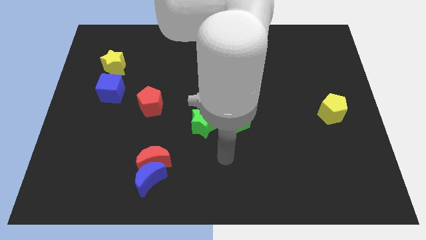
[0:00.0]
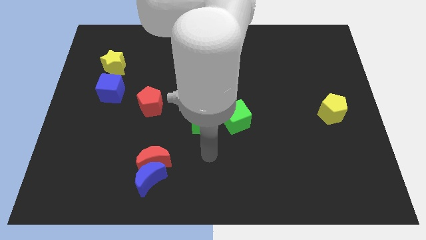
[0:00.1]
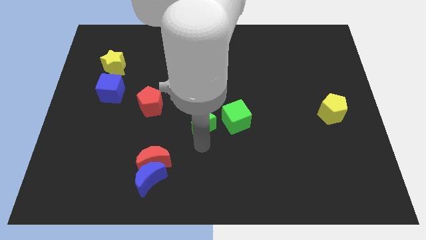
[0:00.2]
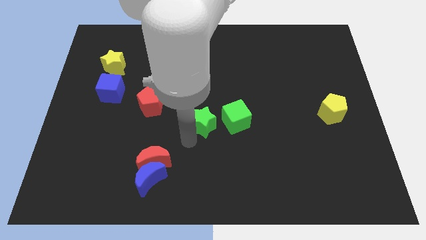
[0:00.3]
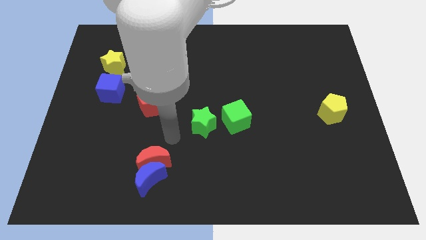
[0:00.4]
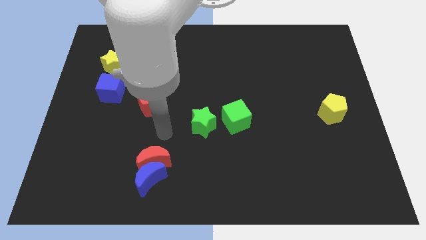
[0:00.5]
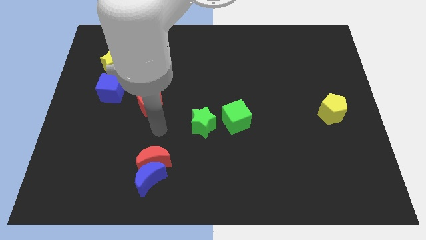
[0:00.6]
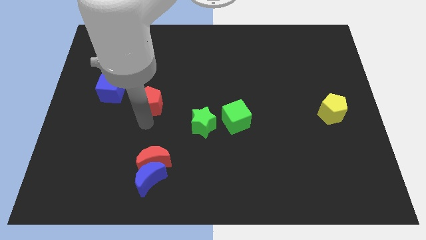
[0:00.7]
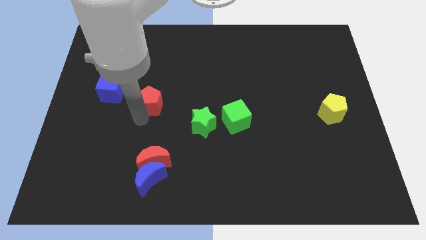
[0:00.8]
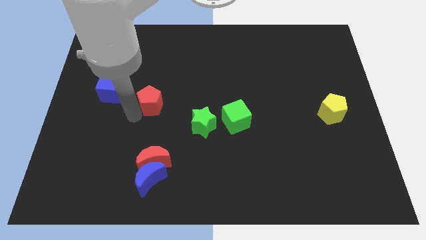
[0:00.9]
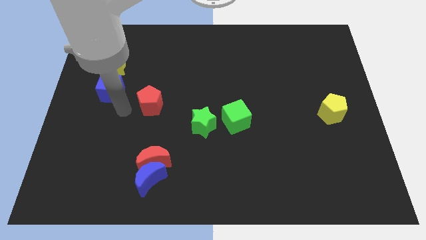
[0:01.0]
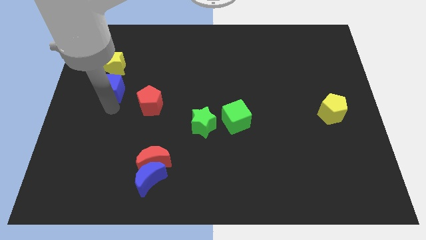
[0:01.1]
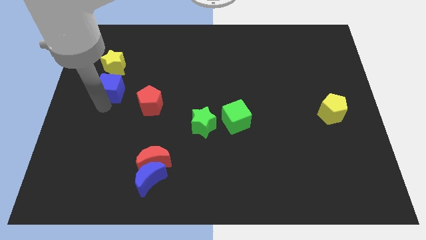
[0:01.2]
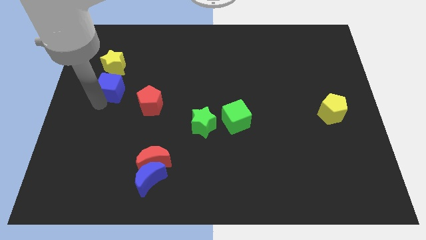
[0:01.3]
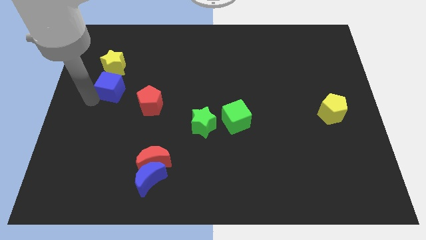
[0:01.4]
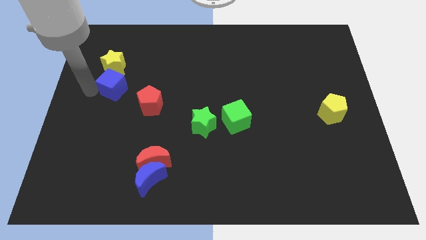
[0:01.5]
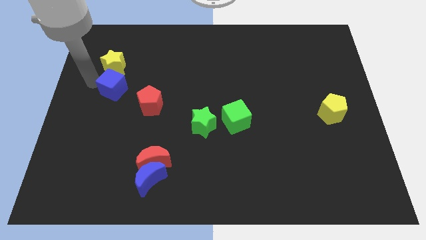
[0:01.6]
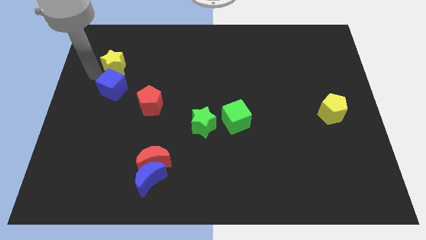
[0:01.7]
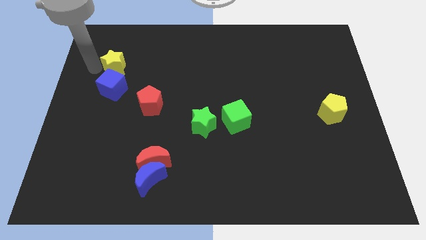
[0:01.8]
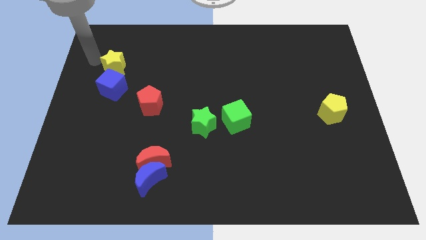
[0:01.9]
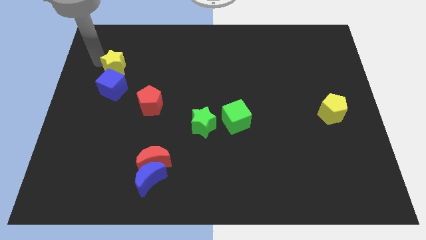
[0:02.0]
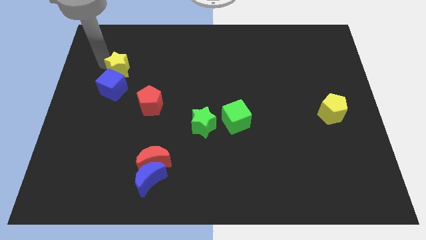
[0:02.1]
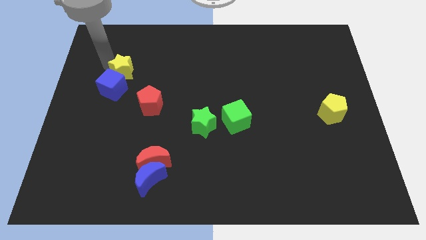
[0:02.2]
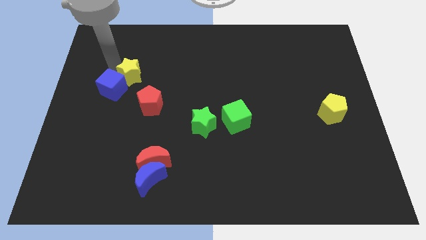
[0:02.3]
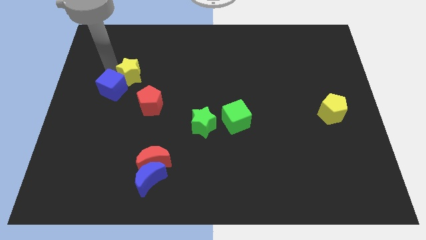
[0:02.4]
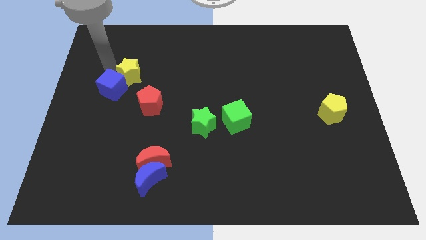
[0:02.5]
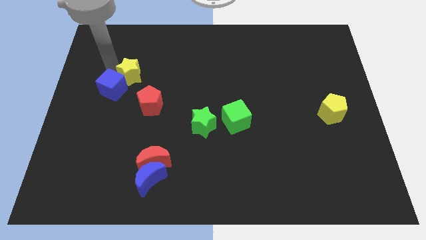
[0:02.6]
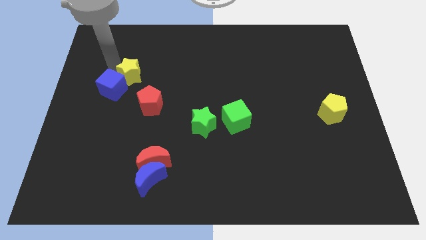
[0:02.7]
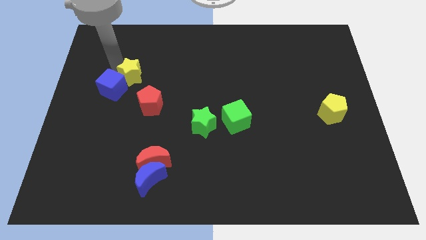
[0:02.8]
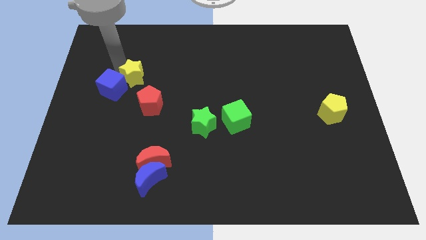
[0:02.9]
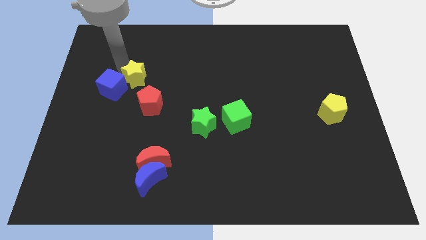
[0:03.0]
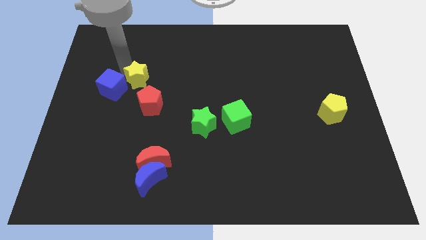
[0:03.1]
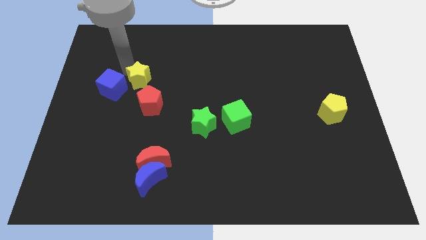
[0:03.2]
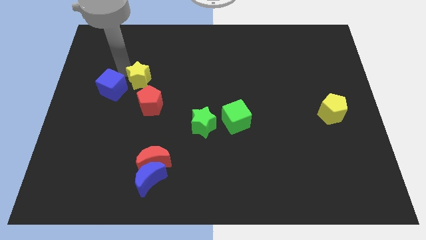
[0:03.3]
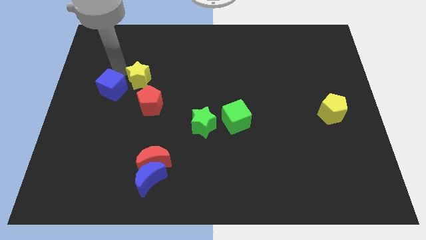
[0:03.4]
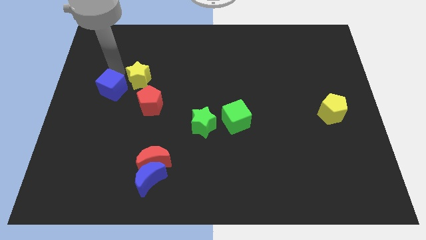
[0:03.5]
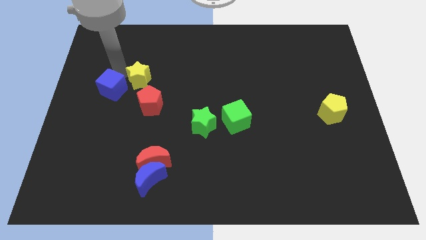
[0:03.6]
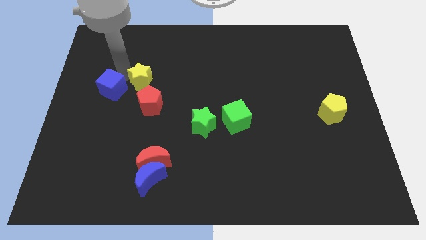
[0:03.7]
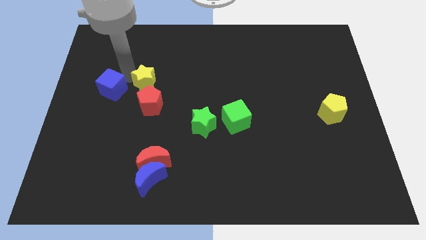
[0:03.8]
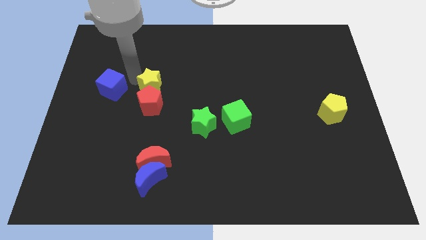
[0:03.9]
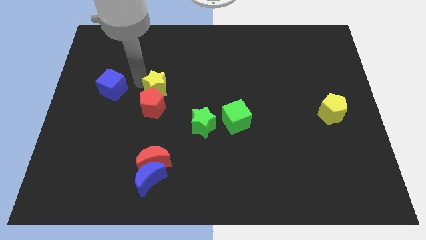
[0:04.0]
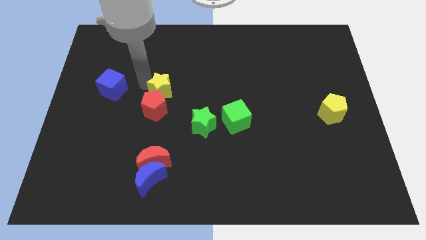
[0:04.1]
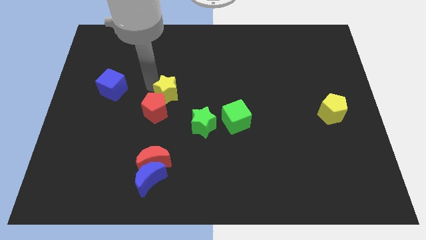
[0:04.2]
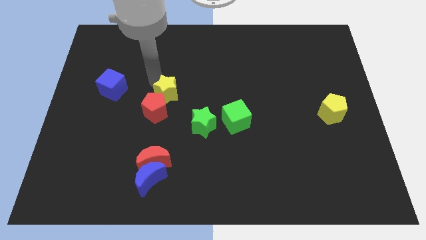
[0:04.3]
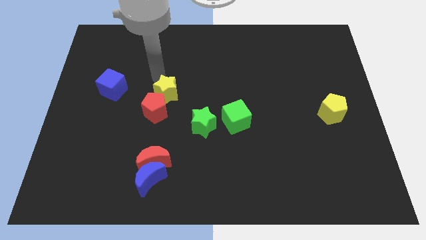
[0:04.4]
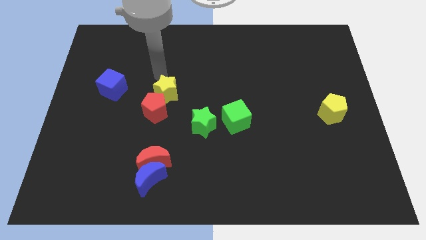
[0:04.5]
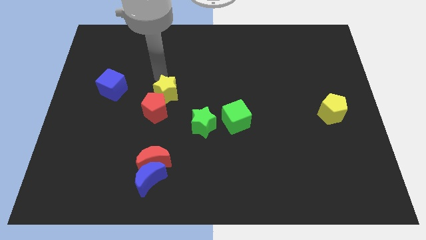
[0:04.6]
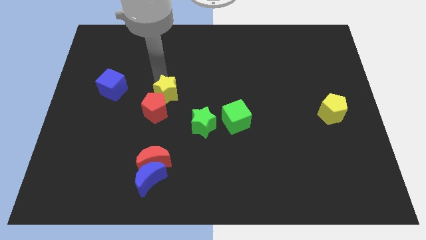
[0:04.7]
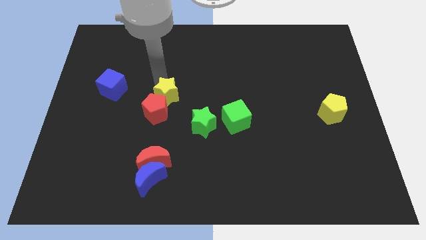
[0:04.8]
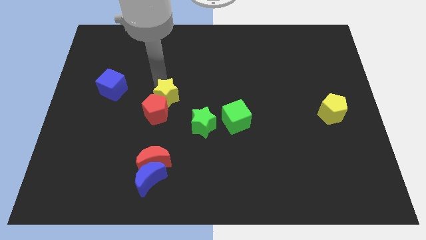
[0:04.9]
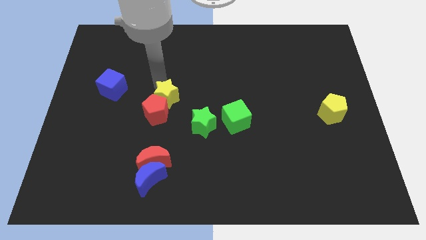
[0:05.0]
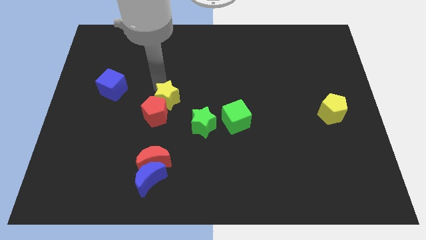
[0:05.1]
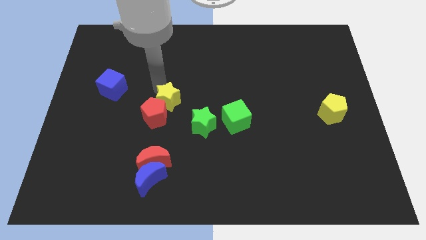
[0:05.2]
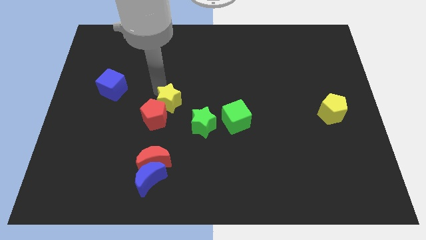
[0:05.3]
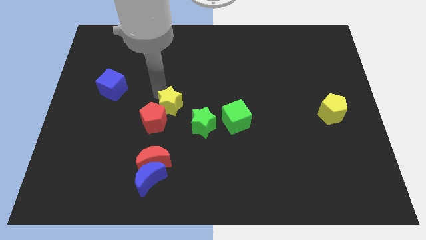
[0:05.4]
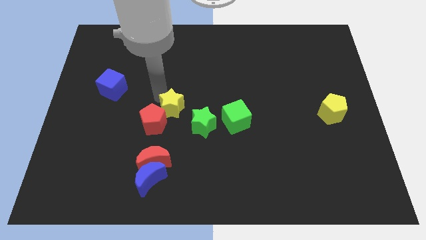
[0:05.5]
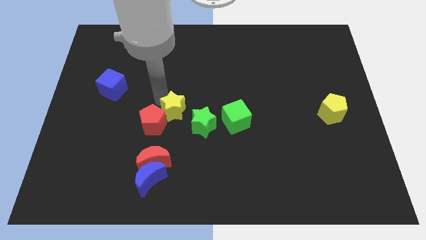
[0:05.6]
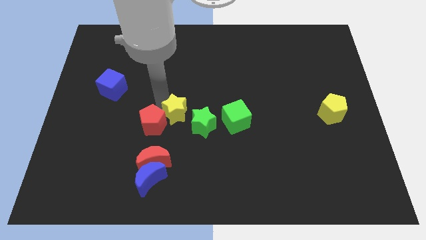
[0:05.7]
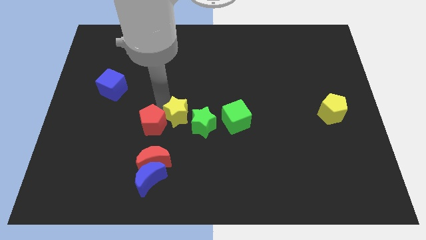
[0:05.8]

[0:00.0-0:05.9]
slide the yellow star next to the green star
